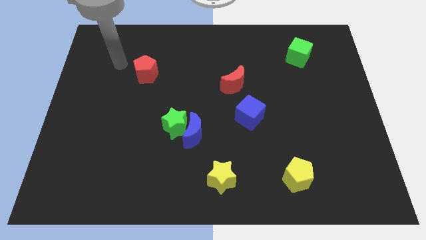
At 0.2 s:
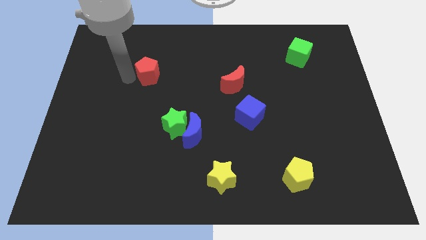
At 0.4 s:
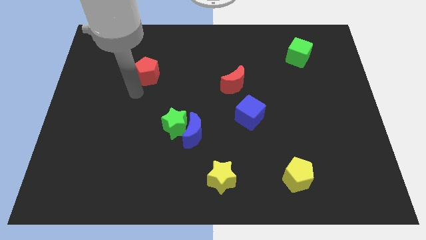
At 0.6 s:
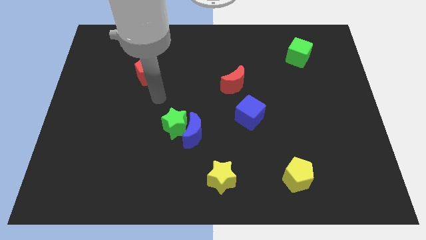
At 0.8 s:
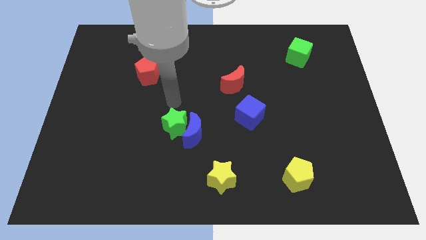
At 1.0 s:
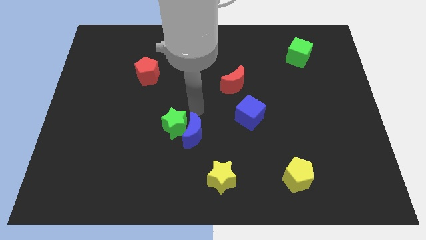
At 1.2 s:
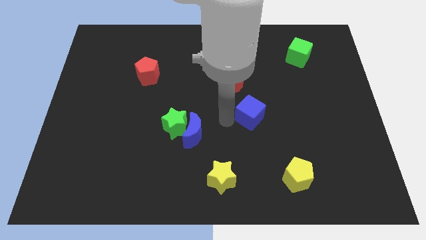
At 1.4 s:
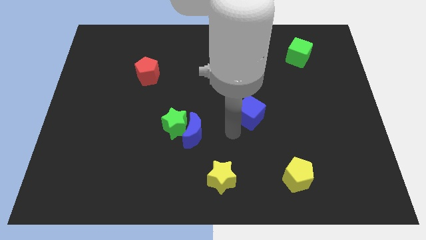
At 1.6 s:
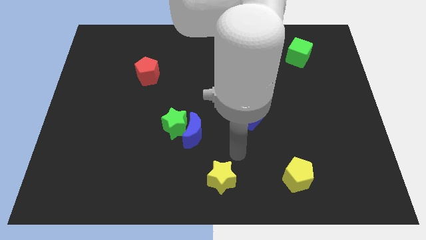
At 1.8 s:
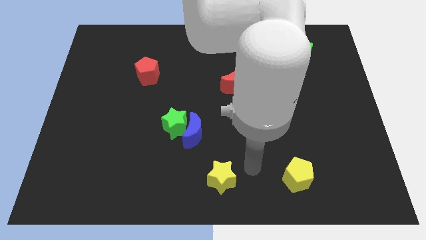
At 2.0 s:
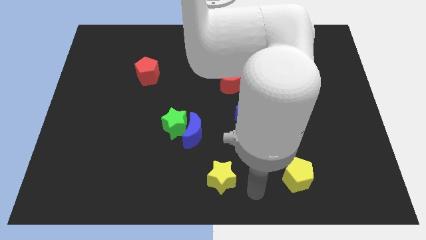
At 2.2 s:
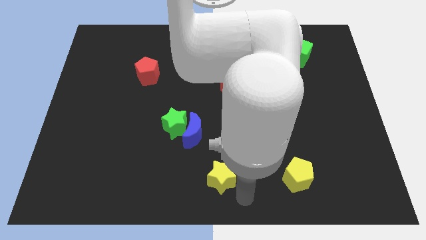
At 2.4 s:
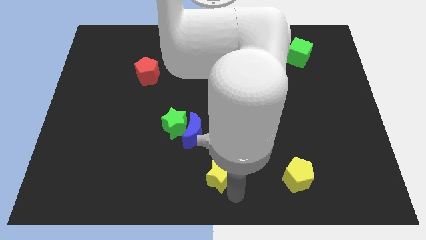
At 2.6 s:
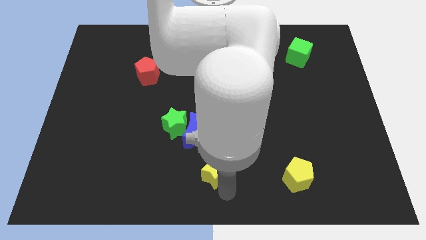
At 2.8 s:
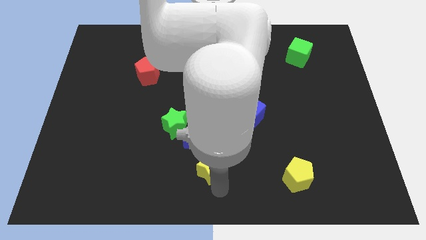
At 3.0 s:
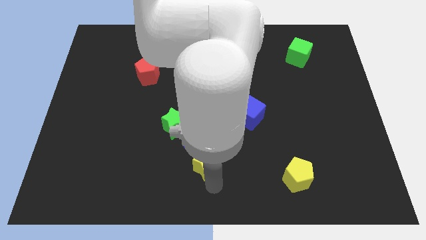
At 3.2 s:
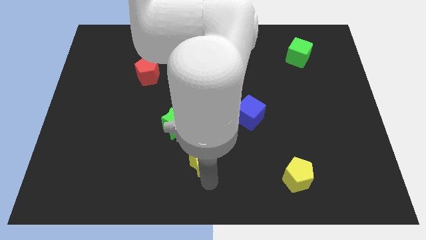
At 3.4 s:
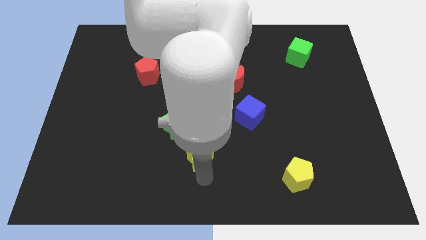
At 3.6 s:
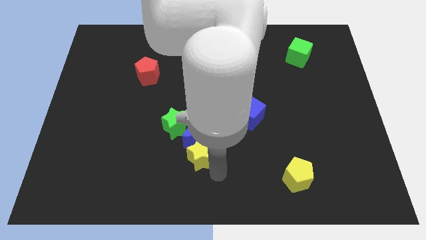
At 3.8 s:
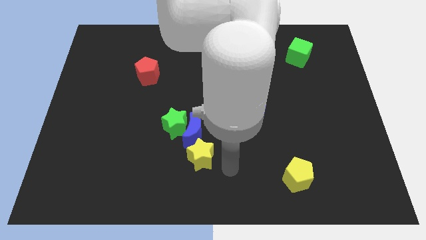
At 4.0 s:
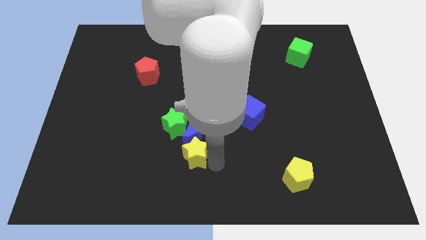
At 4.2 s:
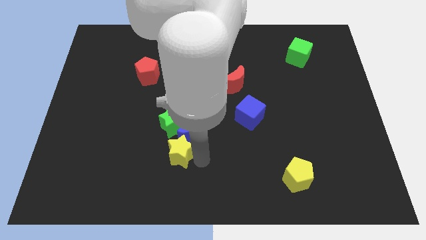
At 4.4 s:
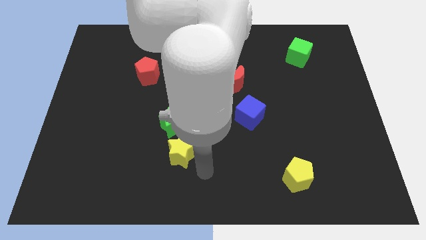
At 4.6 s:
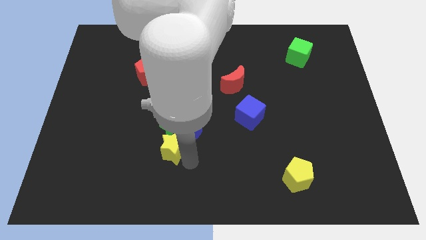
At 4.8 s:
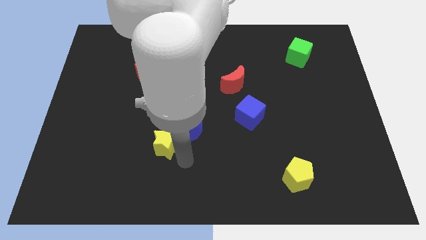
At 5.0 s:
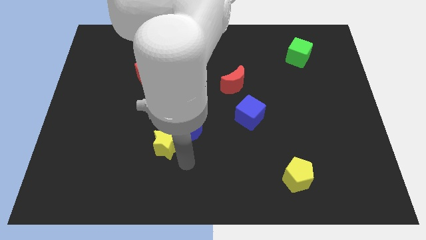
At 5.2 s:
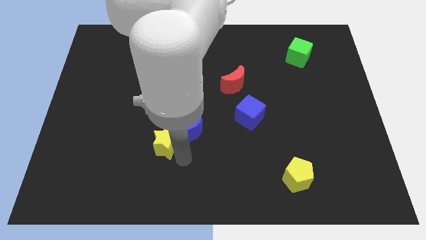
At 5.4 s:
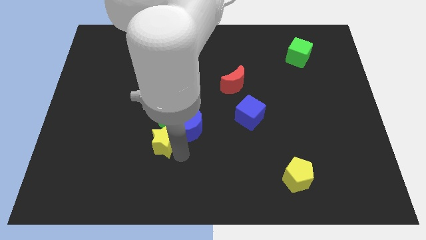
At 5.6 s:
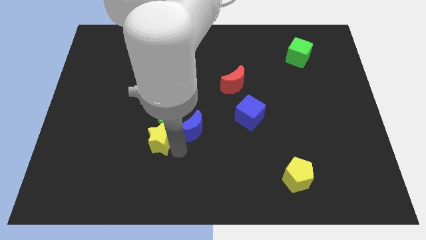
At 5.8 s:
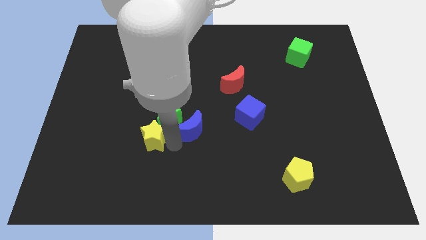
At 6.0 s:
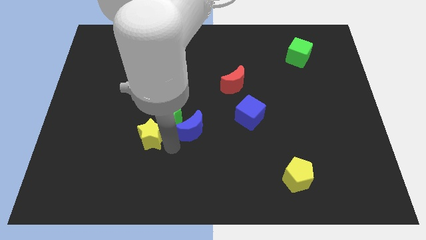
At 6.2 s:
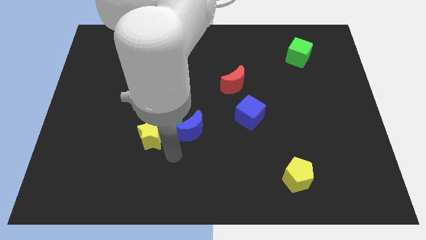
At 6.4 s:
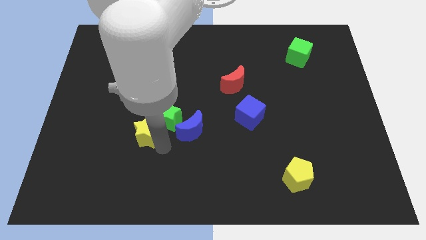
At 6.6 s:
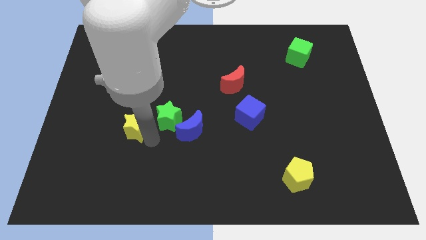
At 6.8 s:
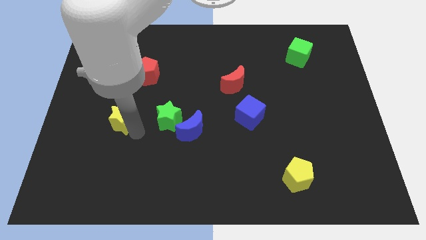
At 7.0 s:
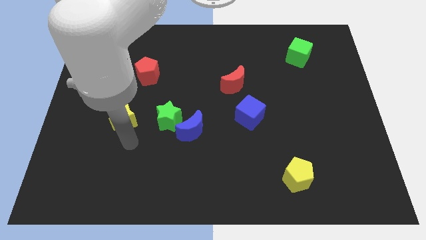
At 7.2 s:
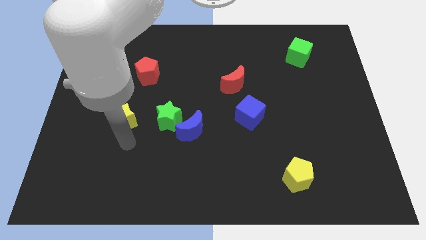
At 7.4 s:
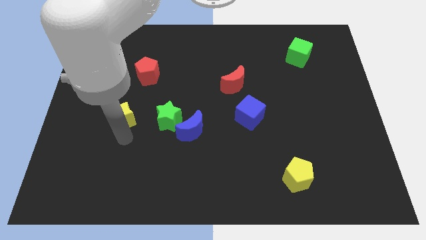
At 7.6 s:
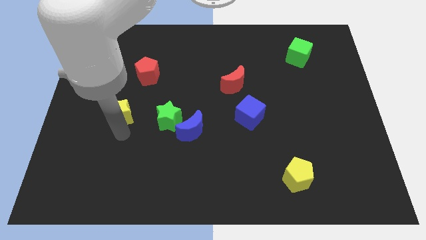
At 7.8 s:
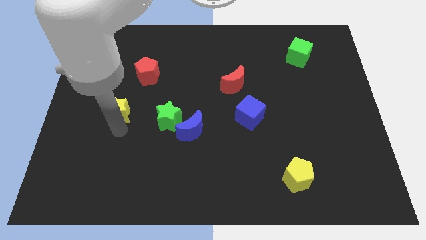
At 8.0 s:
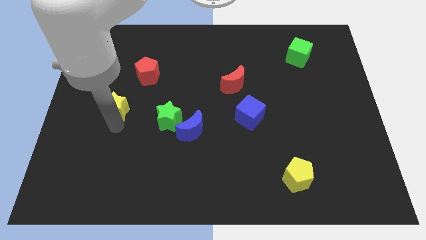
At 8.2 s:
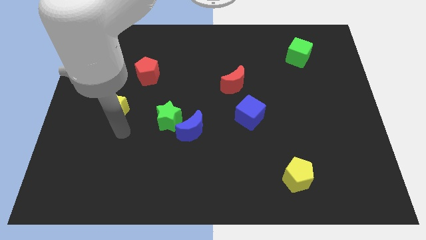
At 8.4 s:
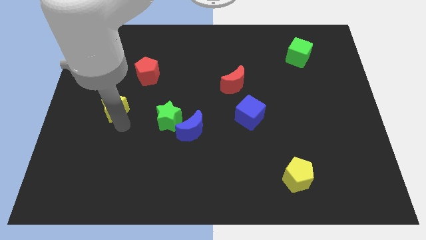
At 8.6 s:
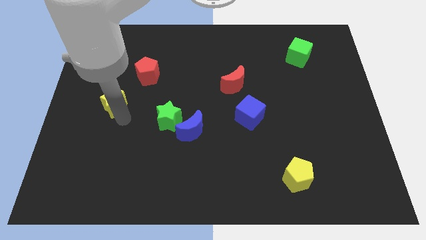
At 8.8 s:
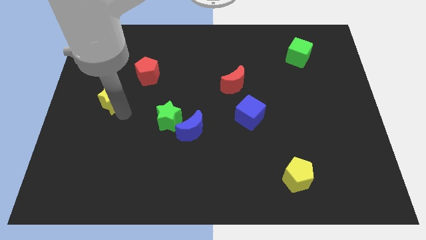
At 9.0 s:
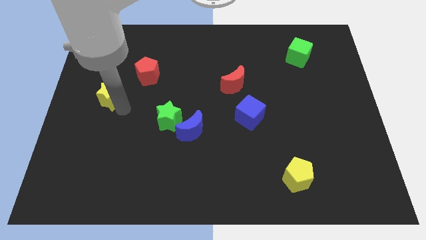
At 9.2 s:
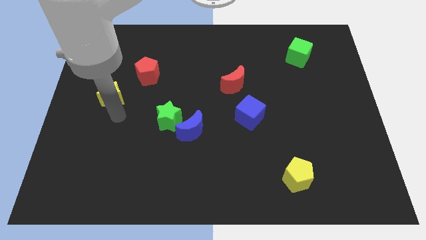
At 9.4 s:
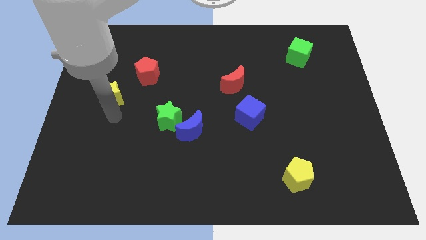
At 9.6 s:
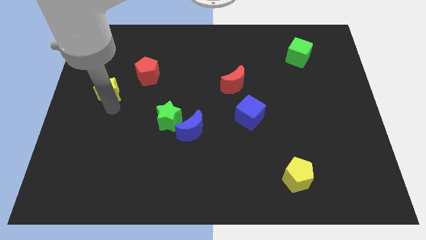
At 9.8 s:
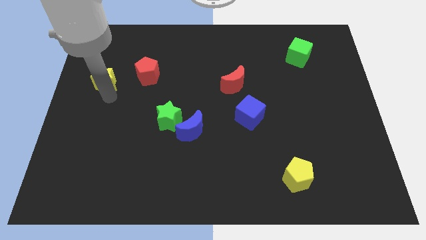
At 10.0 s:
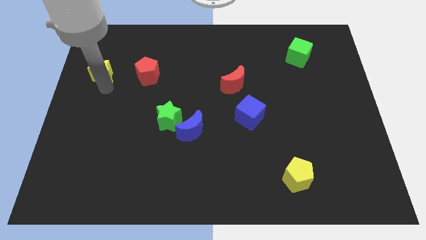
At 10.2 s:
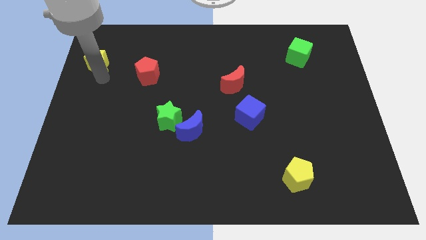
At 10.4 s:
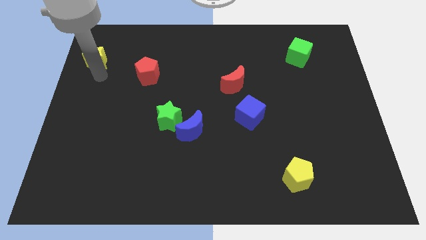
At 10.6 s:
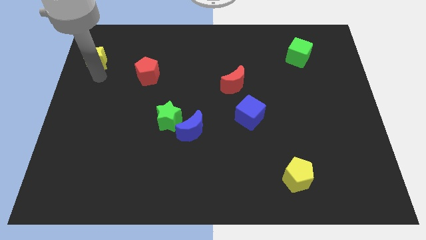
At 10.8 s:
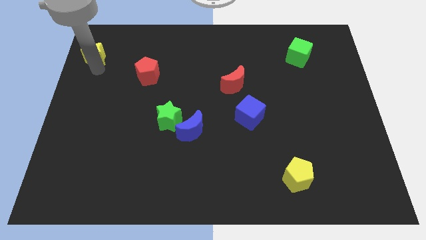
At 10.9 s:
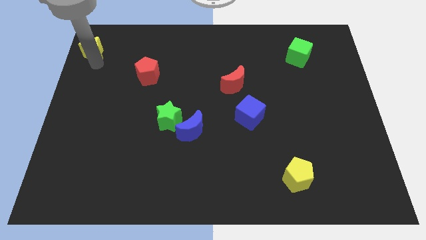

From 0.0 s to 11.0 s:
push the yellow star to the upper left corner

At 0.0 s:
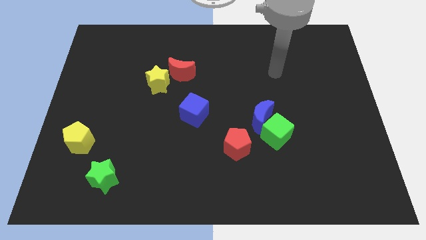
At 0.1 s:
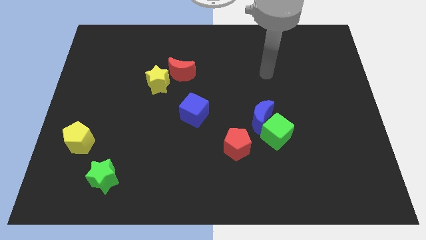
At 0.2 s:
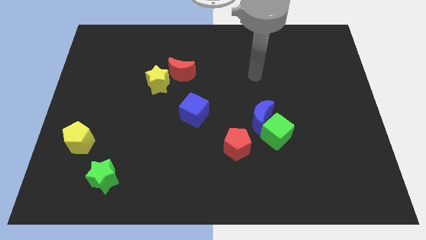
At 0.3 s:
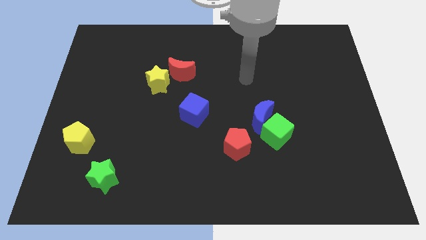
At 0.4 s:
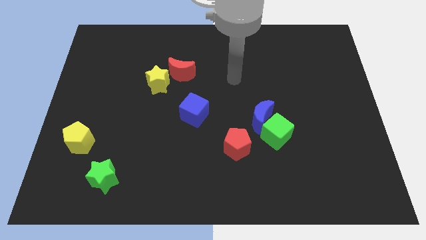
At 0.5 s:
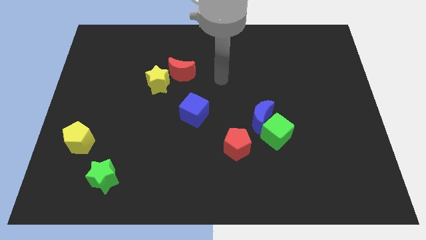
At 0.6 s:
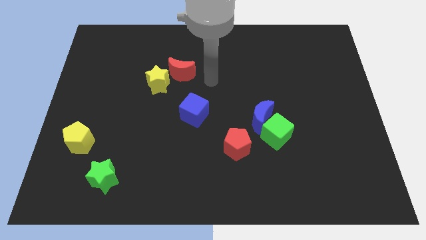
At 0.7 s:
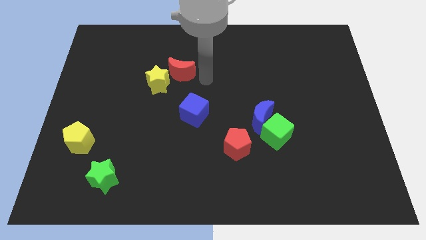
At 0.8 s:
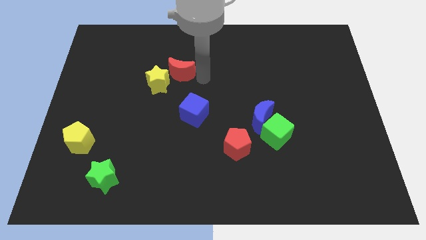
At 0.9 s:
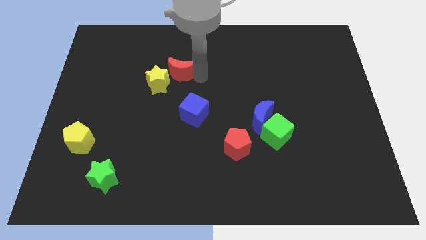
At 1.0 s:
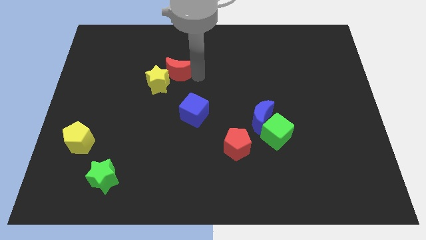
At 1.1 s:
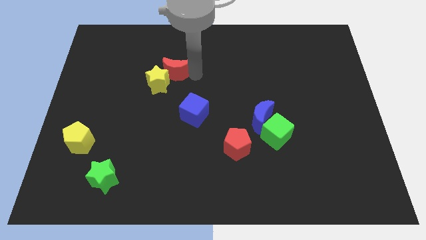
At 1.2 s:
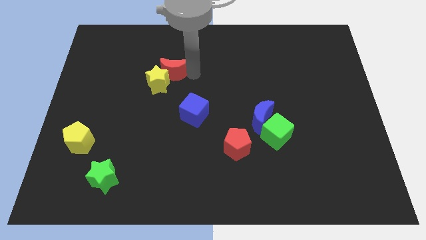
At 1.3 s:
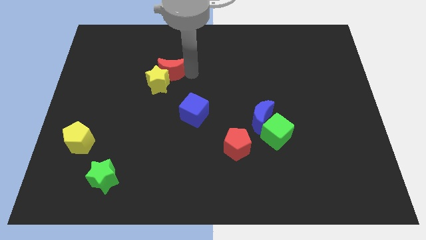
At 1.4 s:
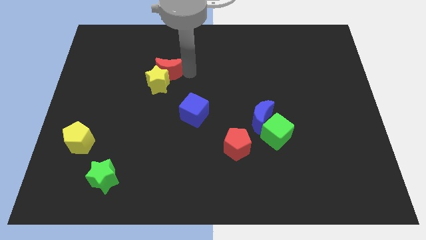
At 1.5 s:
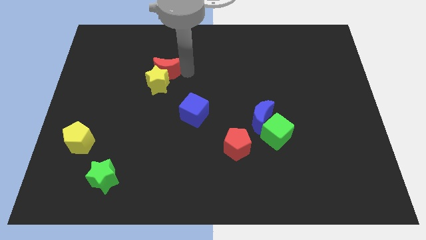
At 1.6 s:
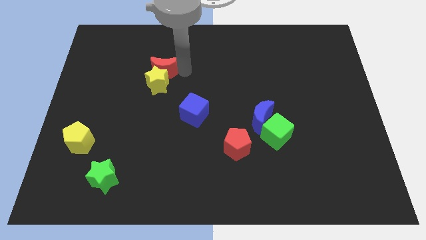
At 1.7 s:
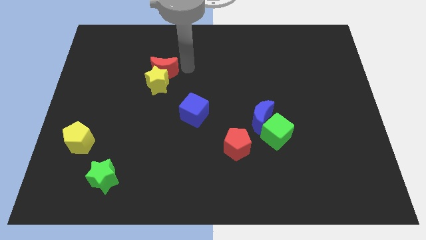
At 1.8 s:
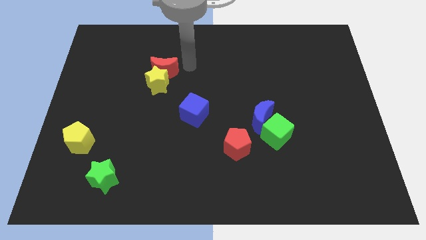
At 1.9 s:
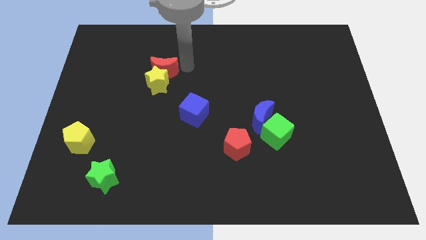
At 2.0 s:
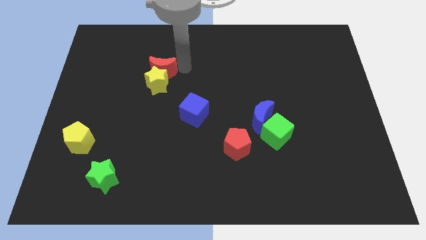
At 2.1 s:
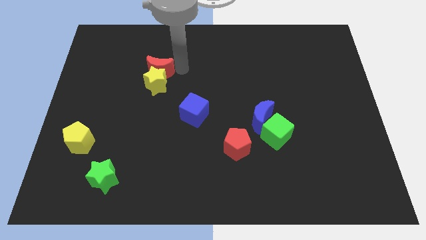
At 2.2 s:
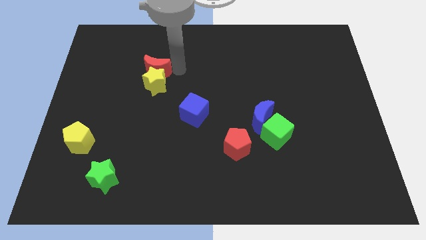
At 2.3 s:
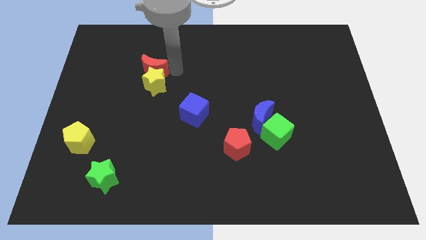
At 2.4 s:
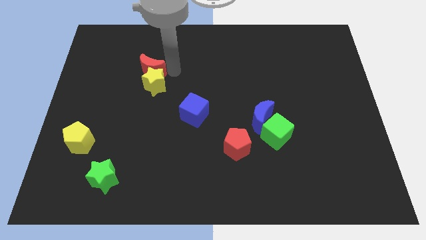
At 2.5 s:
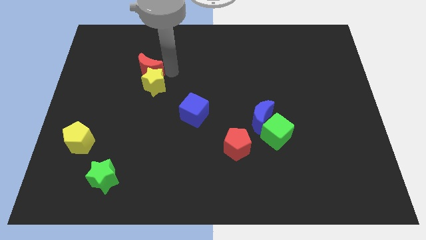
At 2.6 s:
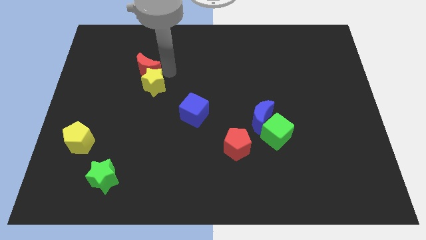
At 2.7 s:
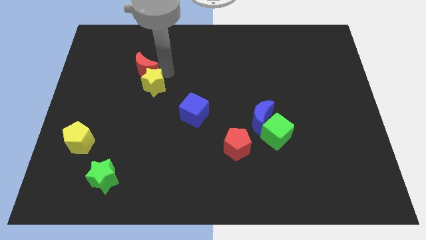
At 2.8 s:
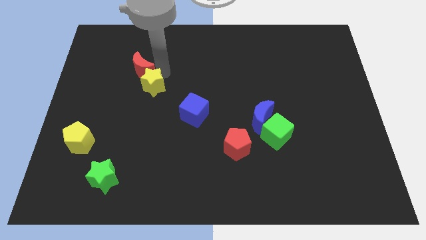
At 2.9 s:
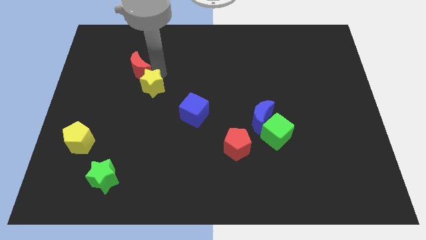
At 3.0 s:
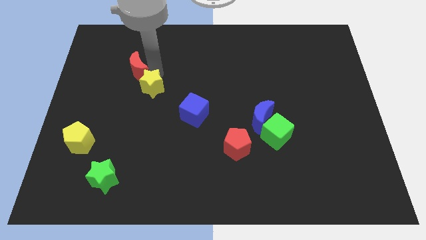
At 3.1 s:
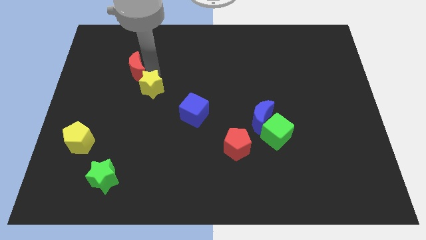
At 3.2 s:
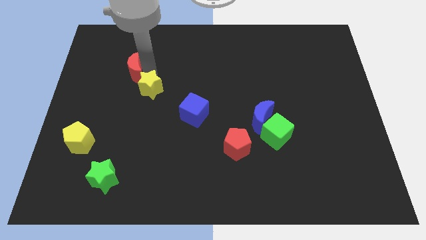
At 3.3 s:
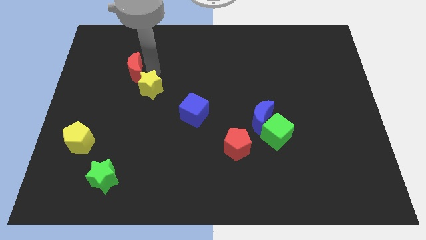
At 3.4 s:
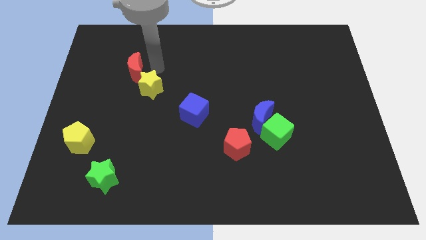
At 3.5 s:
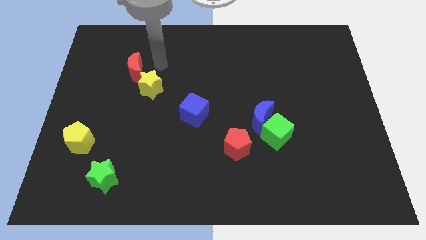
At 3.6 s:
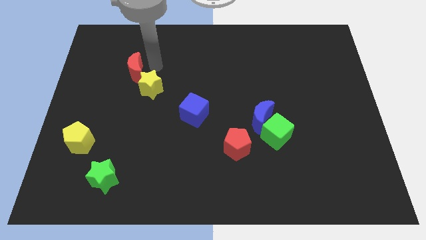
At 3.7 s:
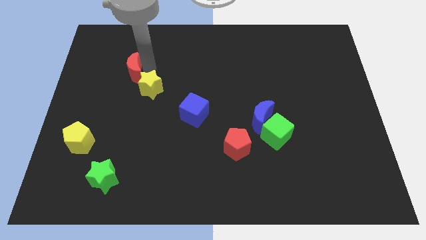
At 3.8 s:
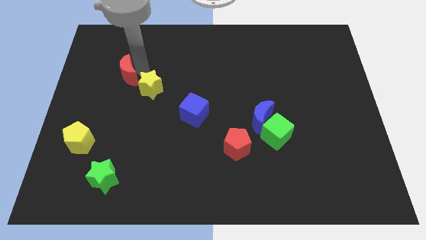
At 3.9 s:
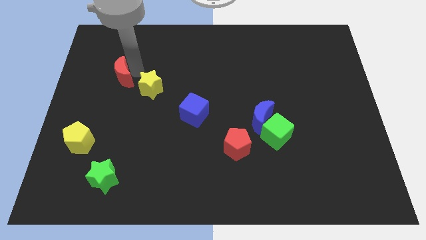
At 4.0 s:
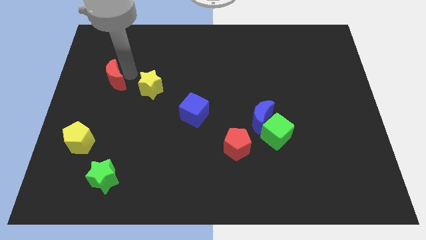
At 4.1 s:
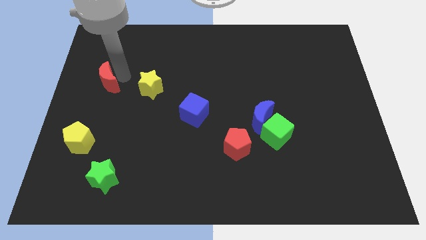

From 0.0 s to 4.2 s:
put the red moon to the left side
